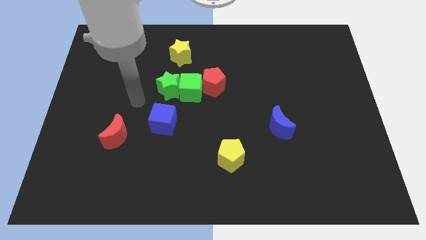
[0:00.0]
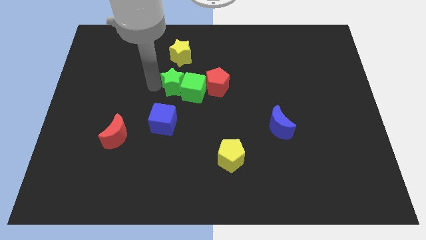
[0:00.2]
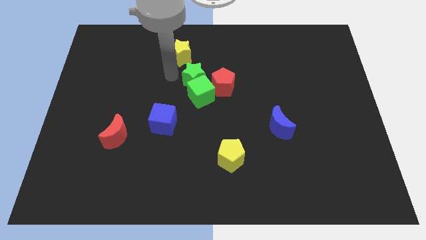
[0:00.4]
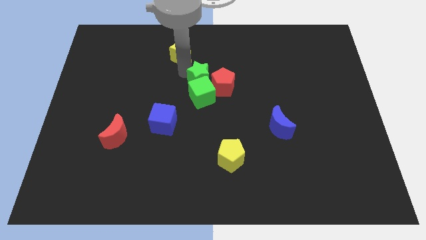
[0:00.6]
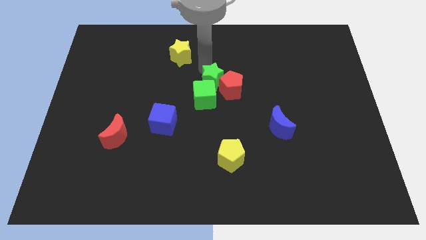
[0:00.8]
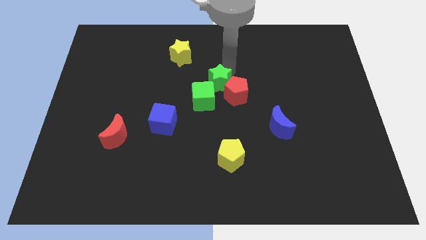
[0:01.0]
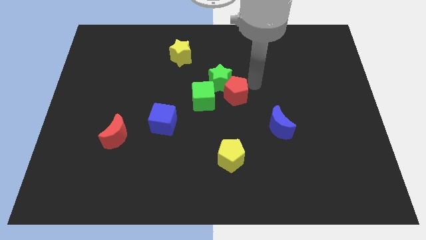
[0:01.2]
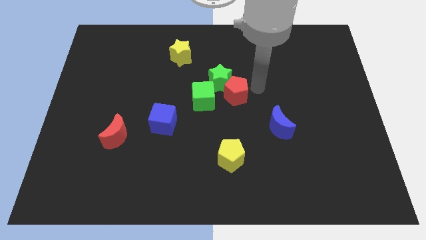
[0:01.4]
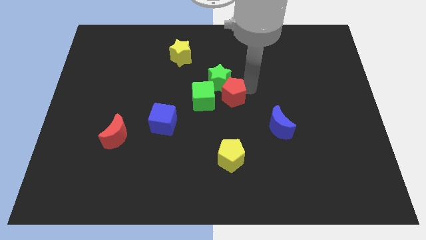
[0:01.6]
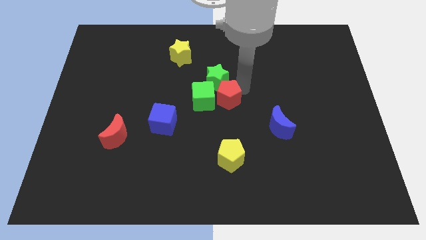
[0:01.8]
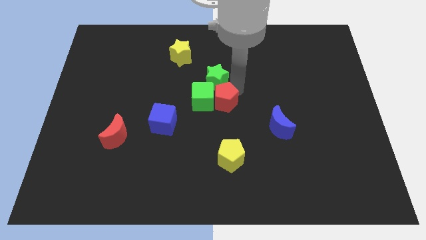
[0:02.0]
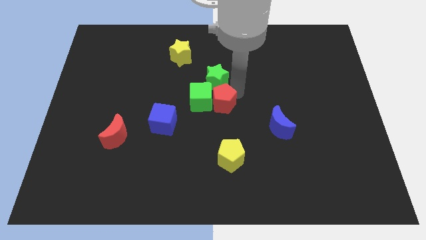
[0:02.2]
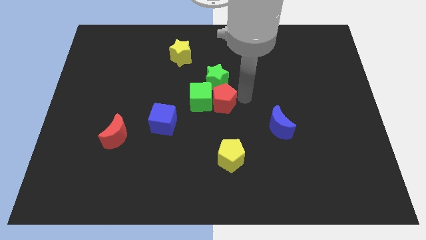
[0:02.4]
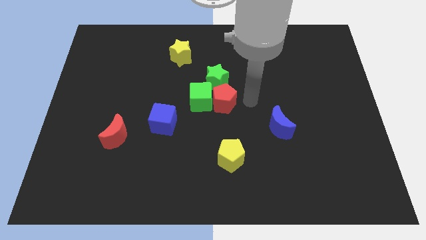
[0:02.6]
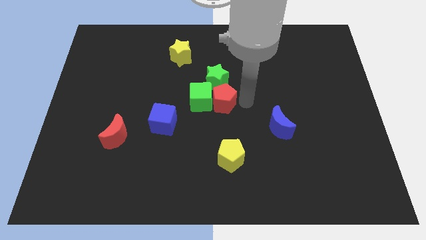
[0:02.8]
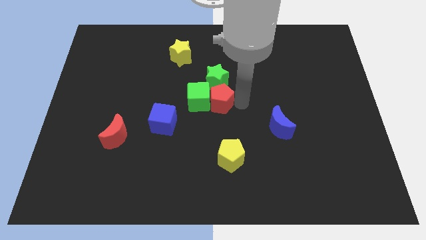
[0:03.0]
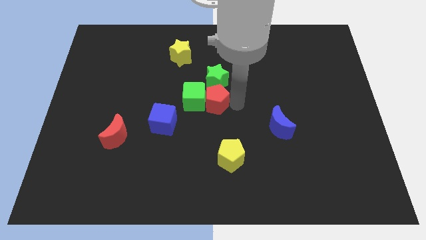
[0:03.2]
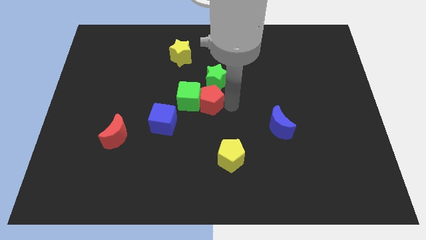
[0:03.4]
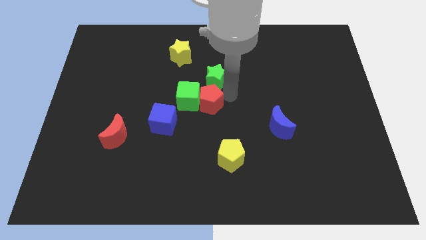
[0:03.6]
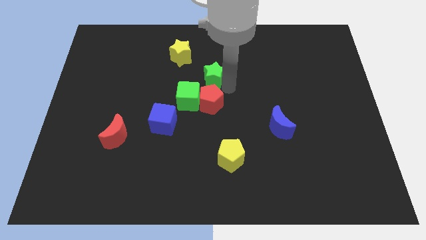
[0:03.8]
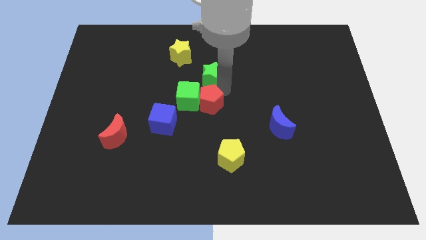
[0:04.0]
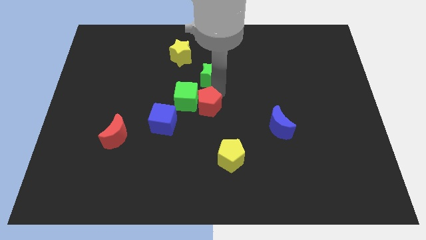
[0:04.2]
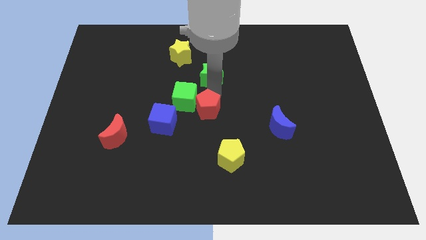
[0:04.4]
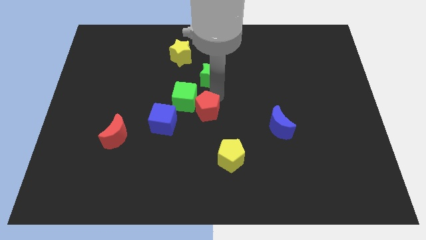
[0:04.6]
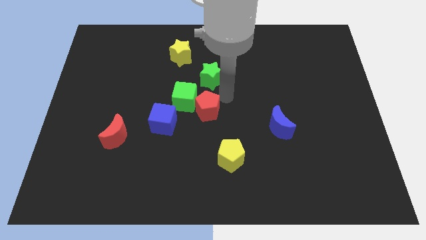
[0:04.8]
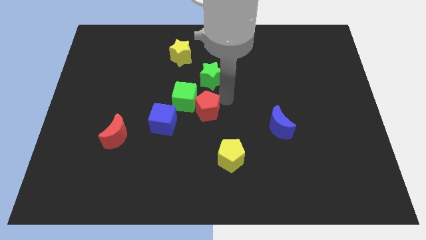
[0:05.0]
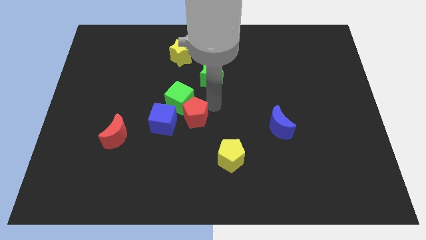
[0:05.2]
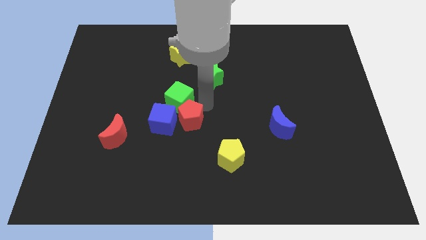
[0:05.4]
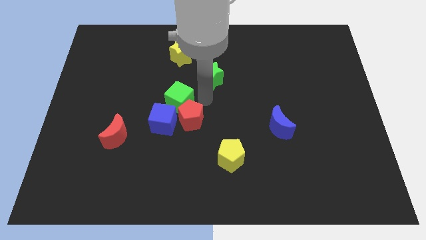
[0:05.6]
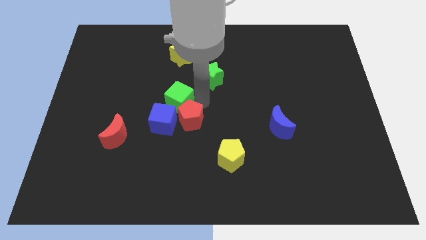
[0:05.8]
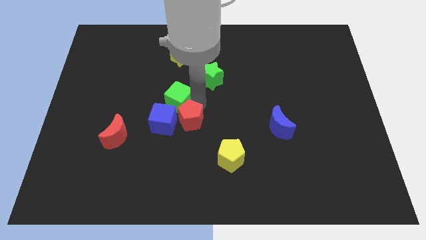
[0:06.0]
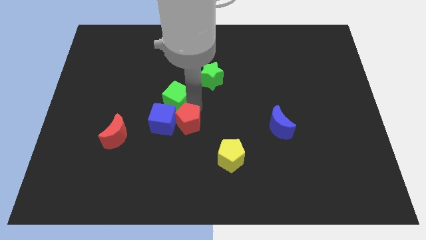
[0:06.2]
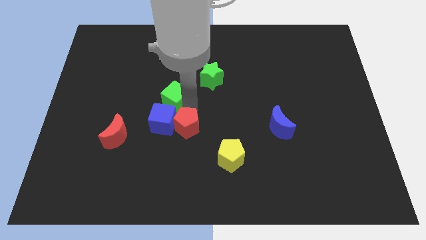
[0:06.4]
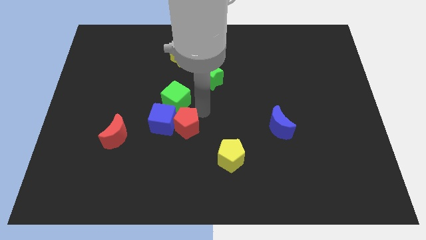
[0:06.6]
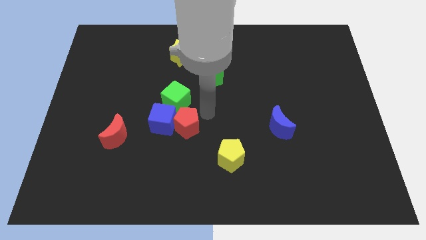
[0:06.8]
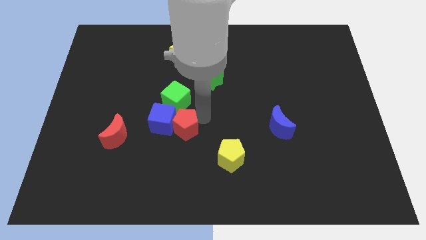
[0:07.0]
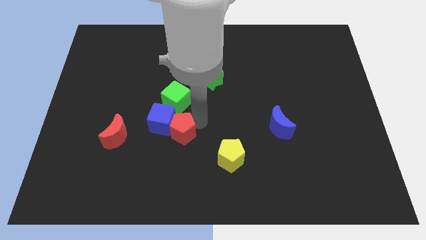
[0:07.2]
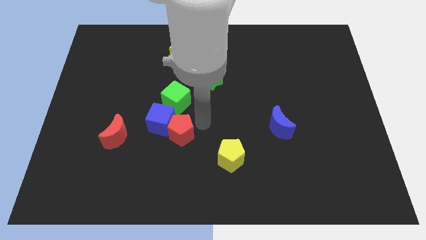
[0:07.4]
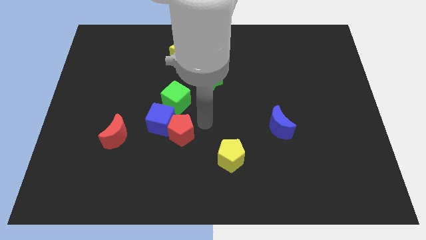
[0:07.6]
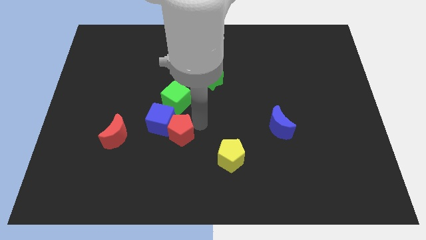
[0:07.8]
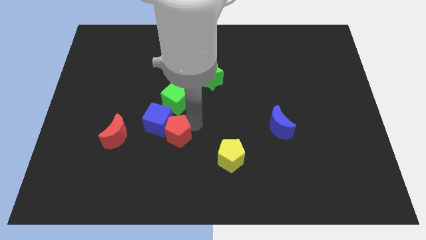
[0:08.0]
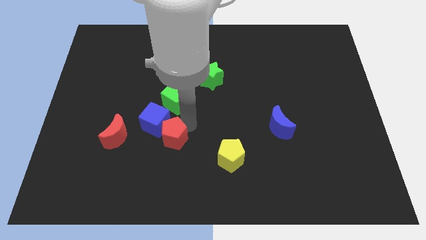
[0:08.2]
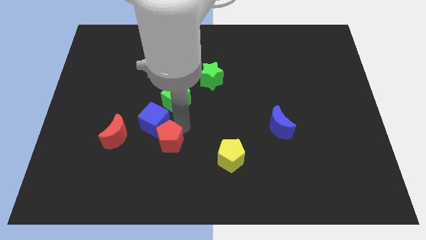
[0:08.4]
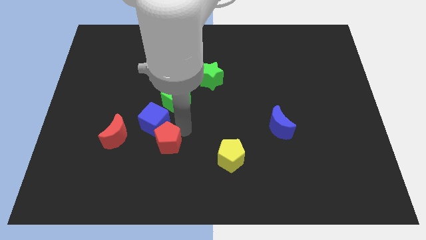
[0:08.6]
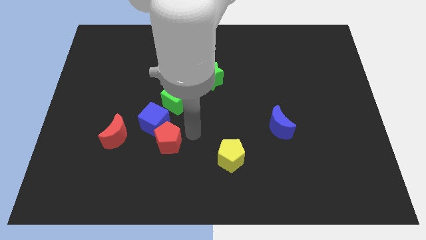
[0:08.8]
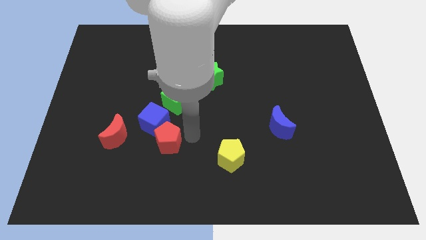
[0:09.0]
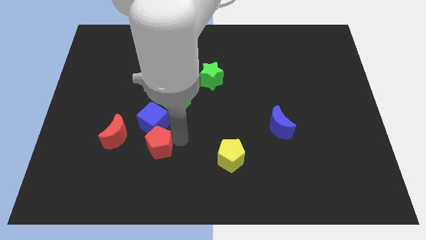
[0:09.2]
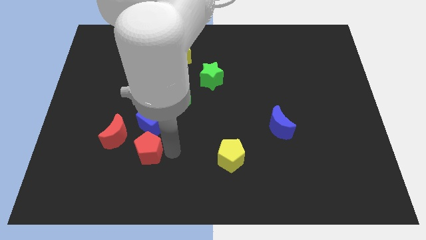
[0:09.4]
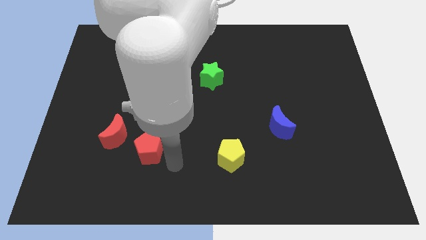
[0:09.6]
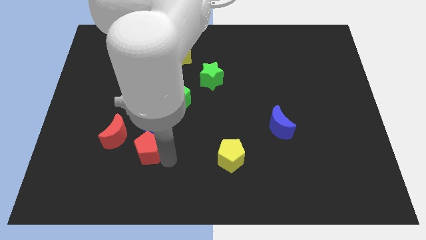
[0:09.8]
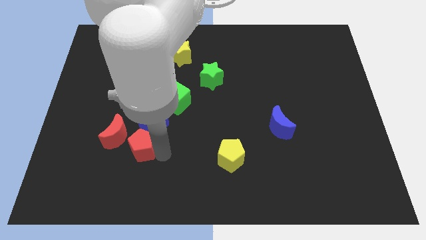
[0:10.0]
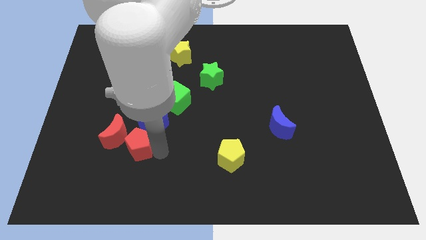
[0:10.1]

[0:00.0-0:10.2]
move the red pentagon next to the red moon

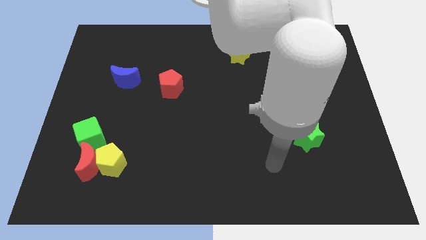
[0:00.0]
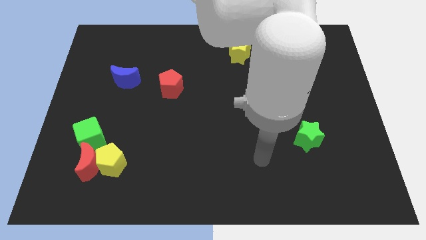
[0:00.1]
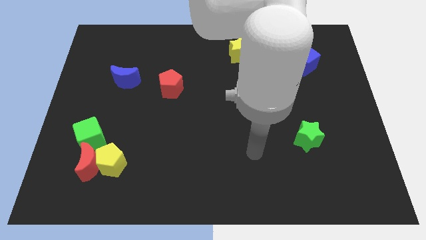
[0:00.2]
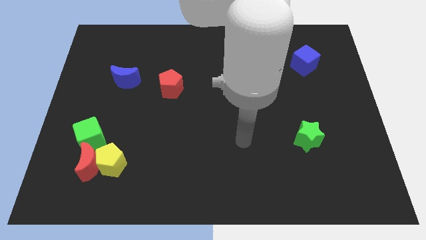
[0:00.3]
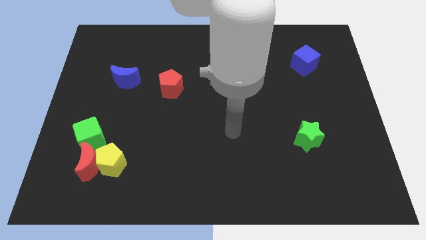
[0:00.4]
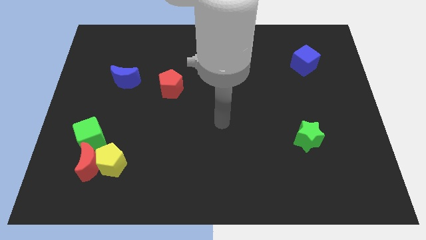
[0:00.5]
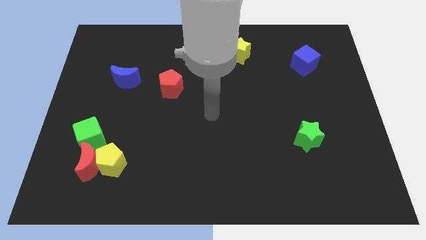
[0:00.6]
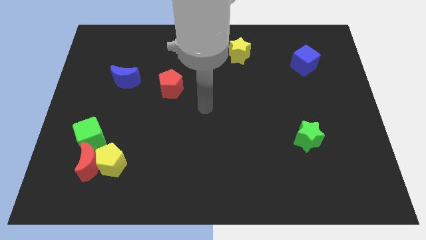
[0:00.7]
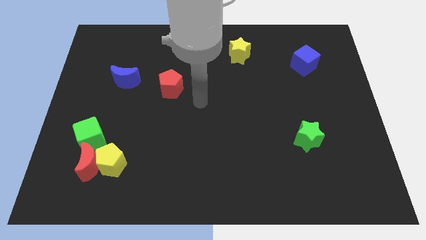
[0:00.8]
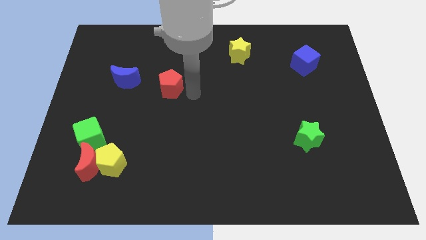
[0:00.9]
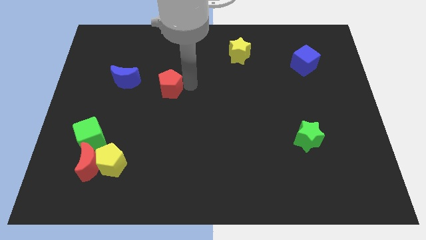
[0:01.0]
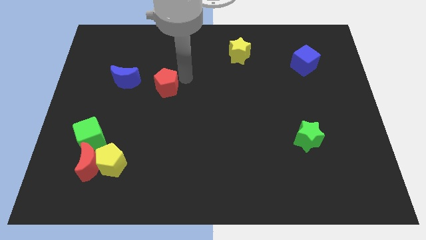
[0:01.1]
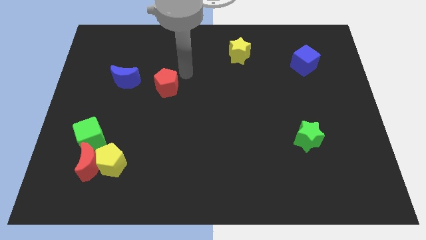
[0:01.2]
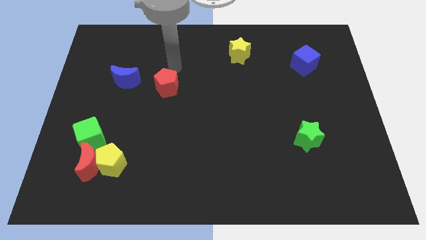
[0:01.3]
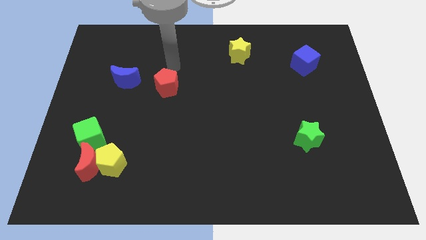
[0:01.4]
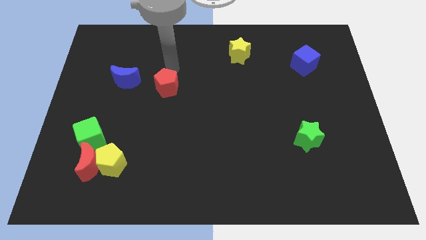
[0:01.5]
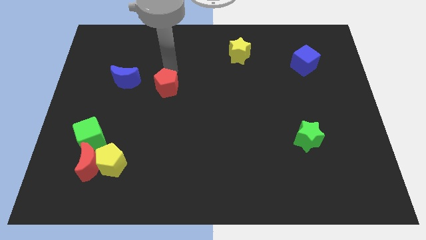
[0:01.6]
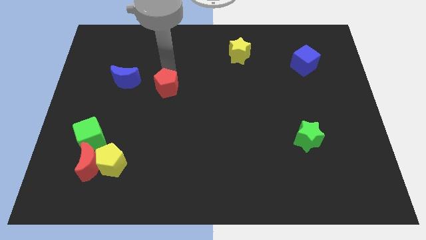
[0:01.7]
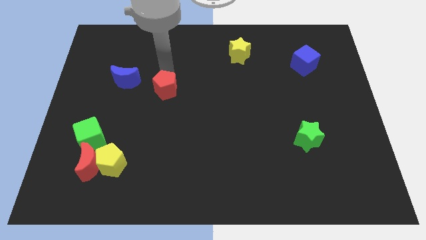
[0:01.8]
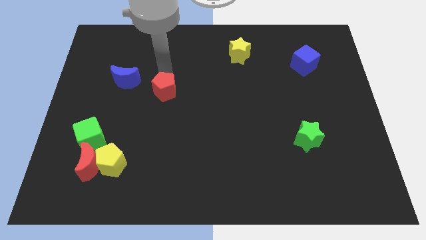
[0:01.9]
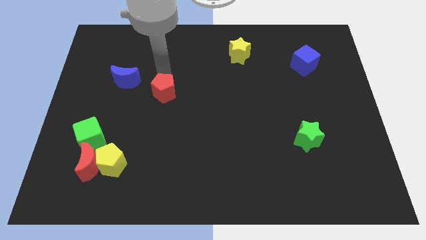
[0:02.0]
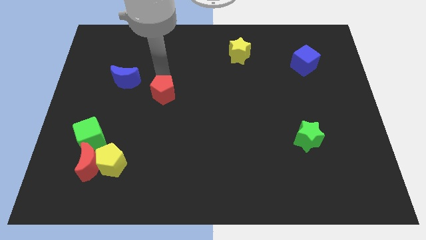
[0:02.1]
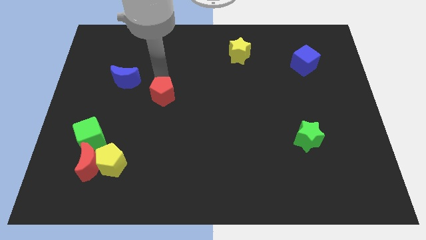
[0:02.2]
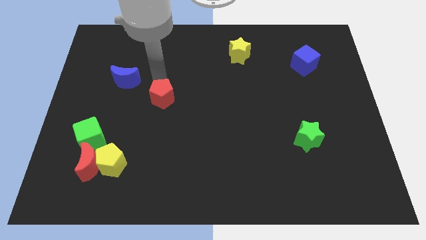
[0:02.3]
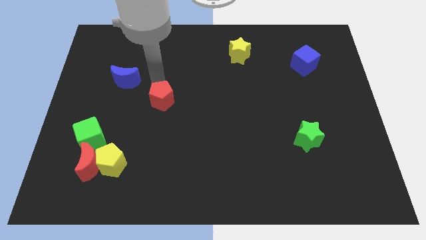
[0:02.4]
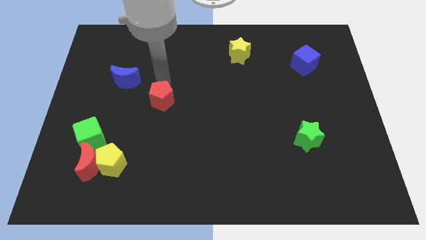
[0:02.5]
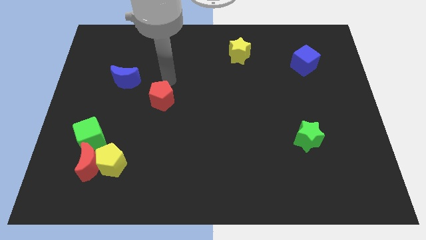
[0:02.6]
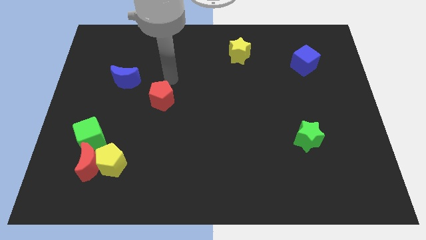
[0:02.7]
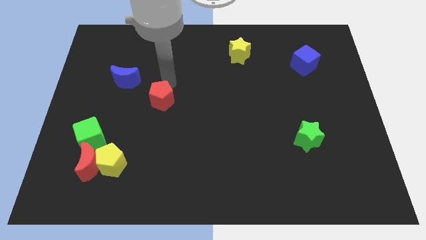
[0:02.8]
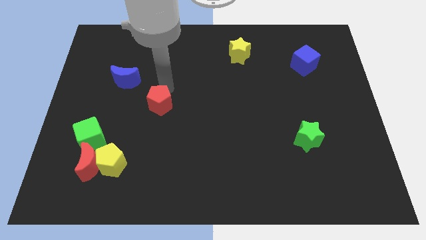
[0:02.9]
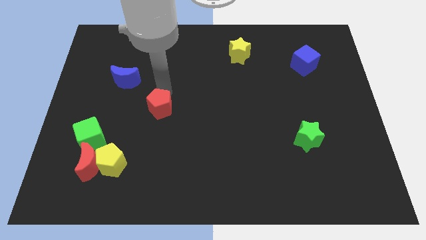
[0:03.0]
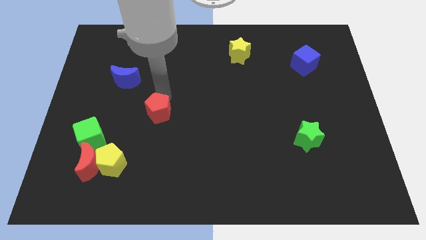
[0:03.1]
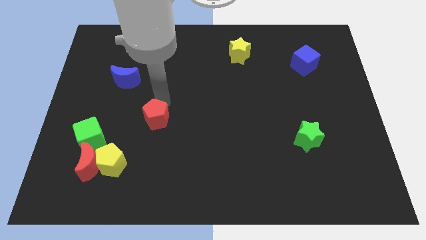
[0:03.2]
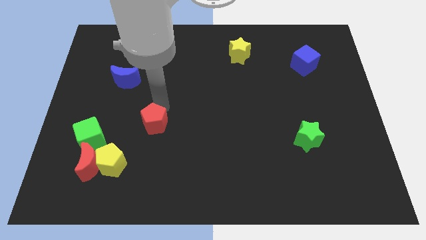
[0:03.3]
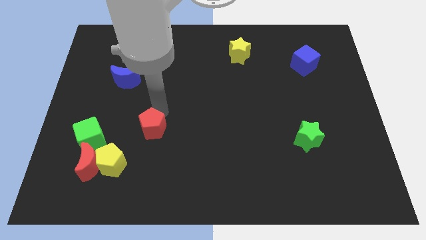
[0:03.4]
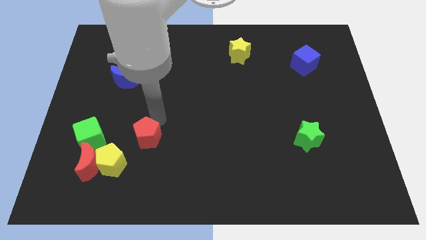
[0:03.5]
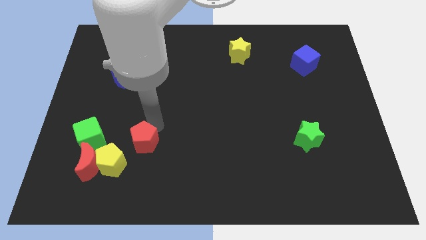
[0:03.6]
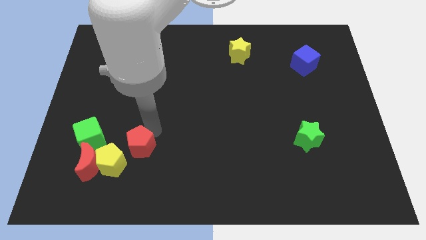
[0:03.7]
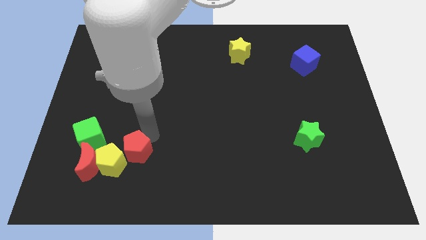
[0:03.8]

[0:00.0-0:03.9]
push the red pentagon next to the yellow pentagon
